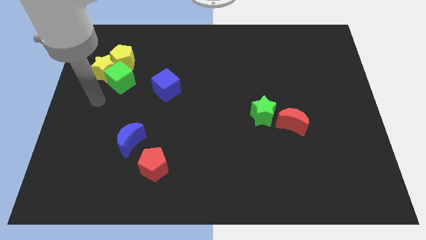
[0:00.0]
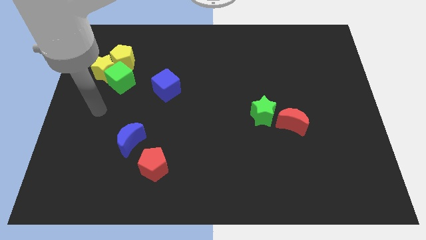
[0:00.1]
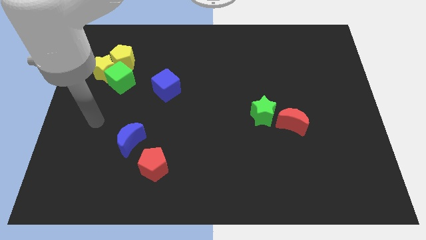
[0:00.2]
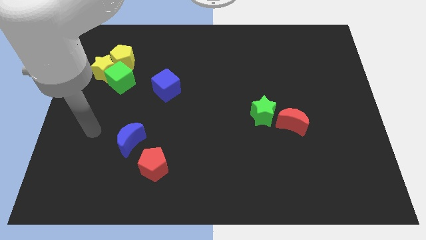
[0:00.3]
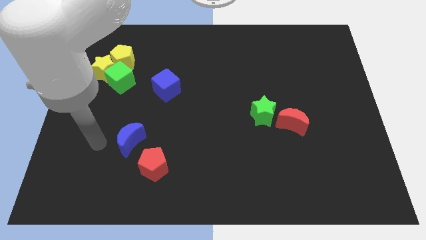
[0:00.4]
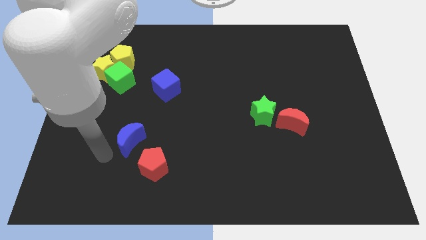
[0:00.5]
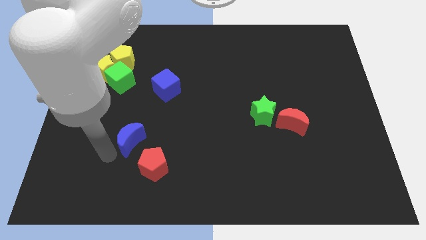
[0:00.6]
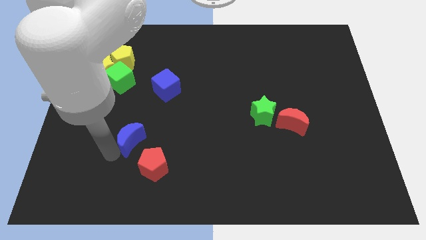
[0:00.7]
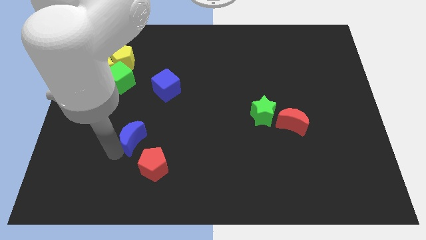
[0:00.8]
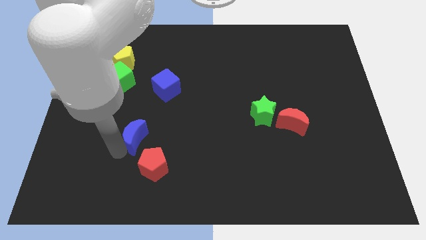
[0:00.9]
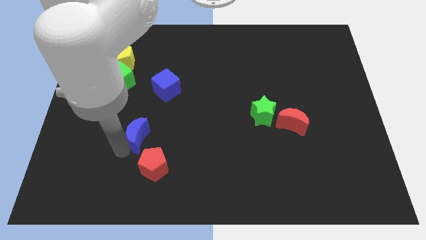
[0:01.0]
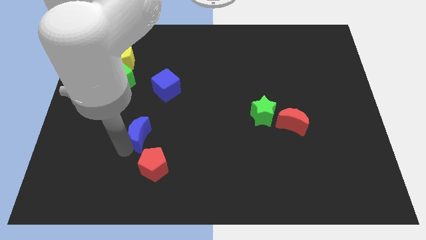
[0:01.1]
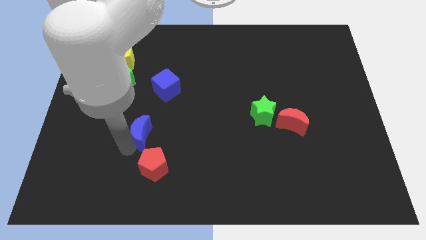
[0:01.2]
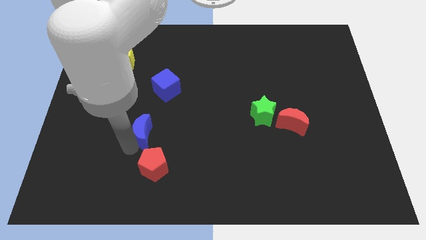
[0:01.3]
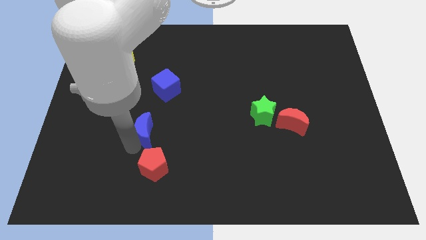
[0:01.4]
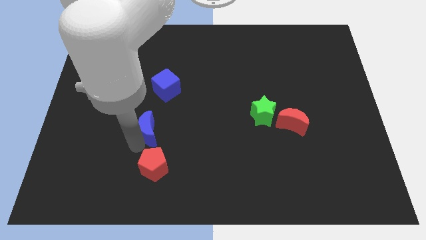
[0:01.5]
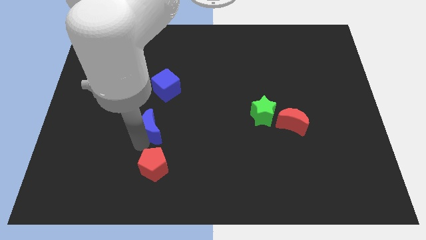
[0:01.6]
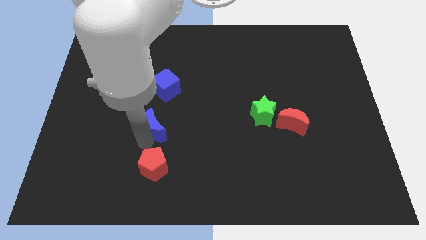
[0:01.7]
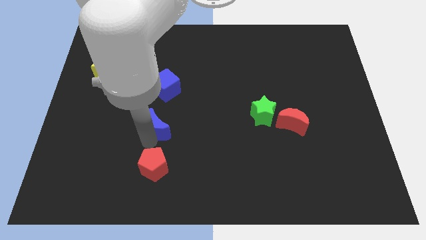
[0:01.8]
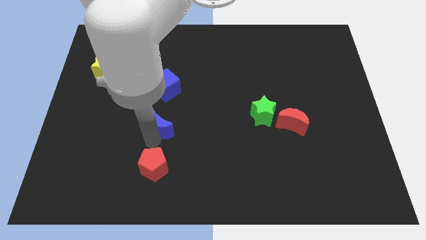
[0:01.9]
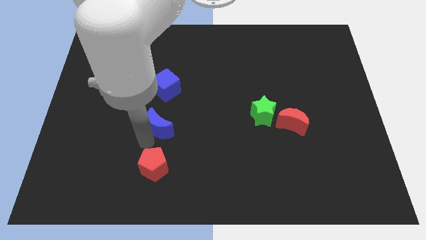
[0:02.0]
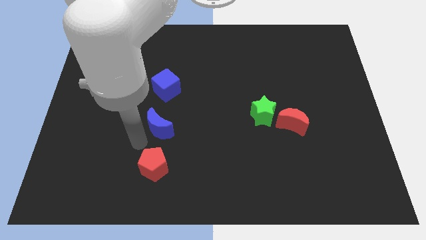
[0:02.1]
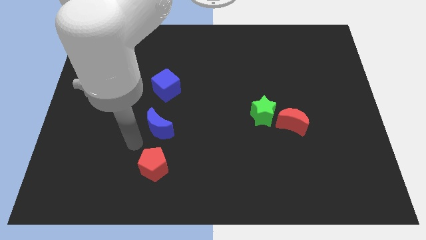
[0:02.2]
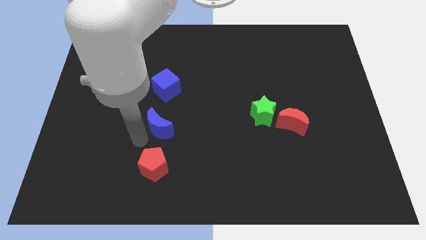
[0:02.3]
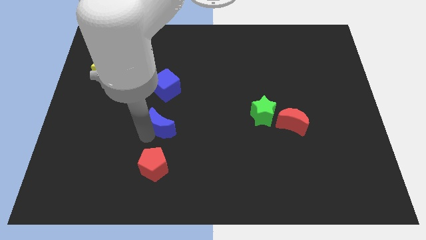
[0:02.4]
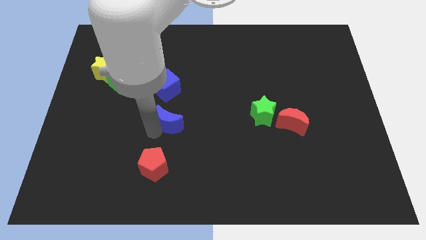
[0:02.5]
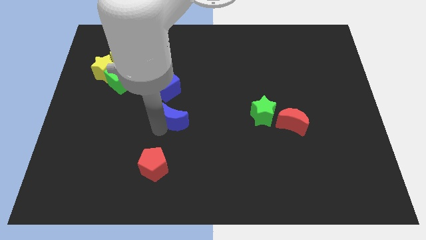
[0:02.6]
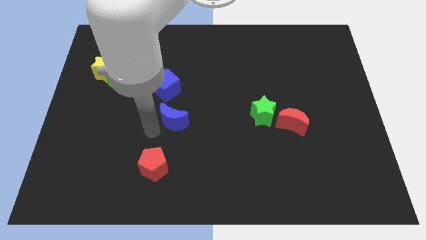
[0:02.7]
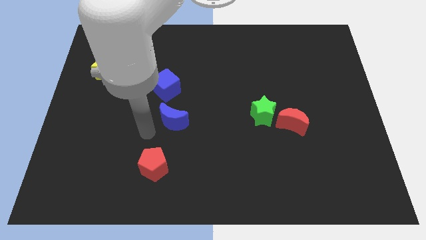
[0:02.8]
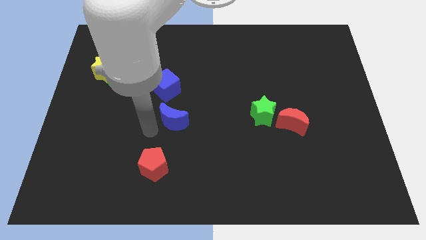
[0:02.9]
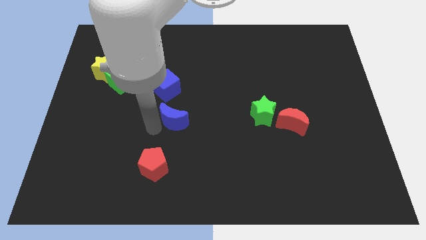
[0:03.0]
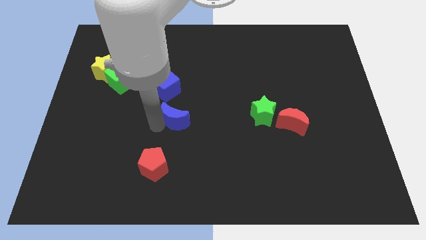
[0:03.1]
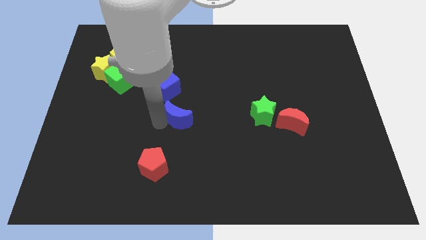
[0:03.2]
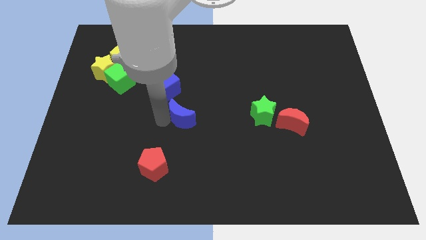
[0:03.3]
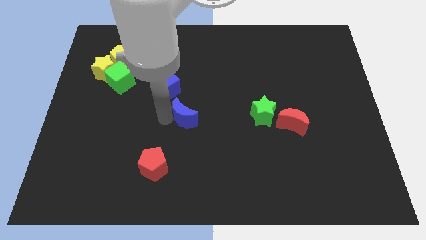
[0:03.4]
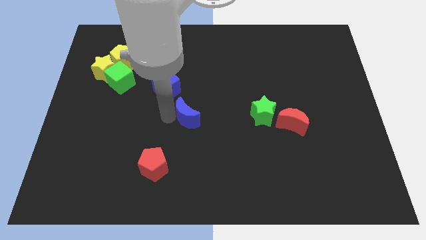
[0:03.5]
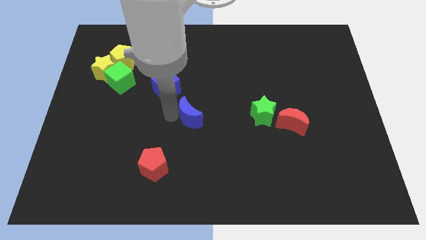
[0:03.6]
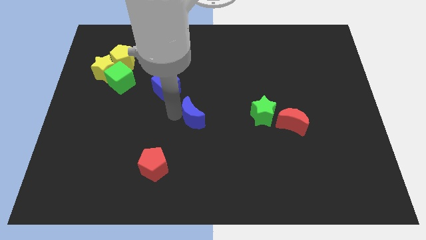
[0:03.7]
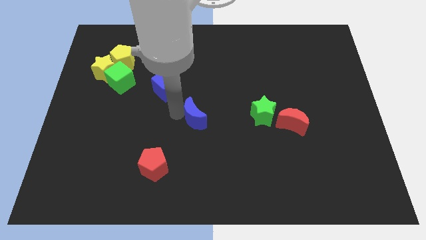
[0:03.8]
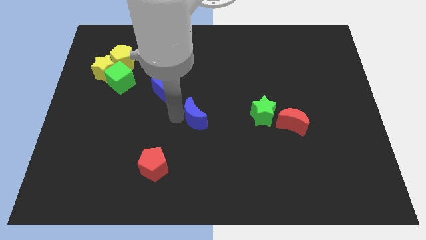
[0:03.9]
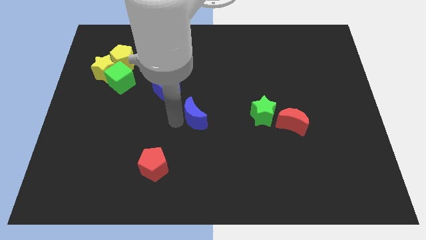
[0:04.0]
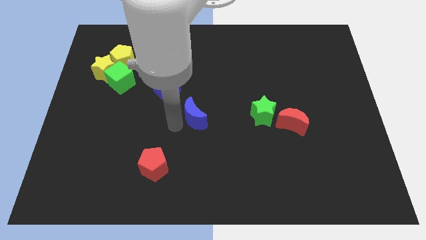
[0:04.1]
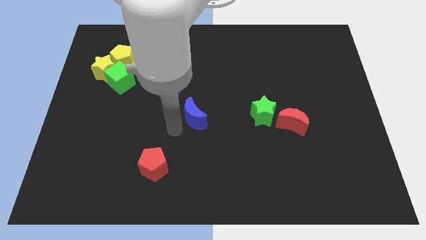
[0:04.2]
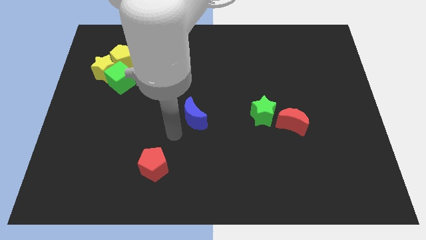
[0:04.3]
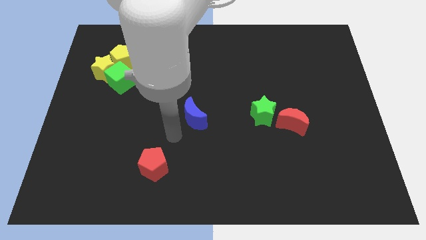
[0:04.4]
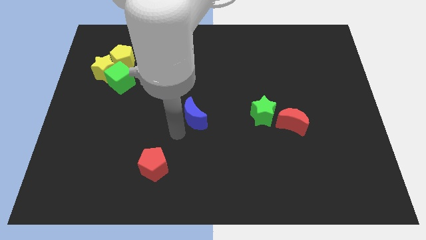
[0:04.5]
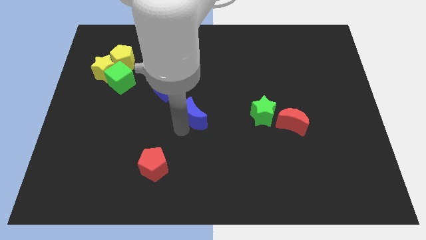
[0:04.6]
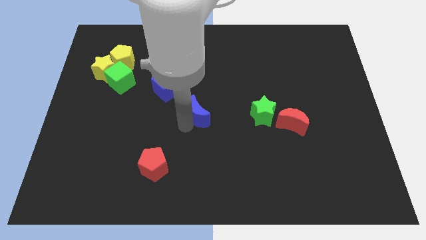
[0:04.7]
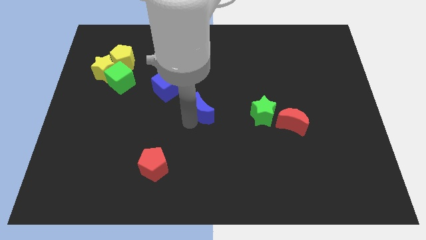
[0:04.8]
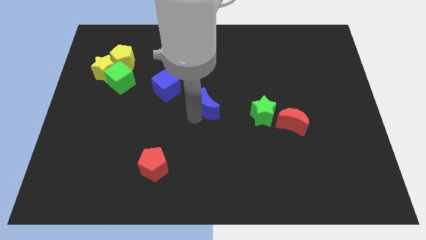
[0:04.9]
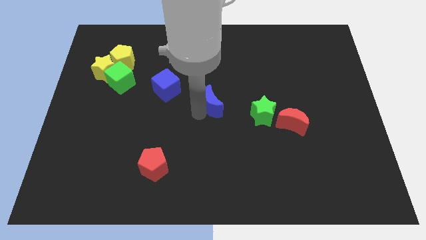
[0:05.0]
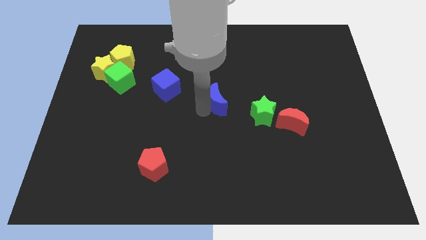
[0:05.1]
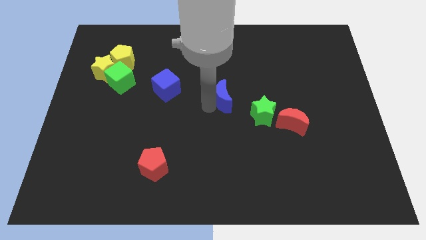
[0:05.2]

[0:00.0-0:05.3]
push the blue moon to the top left side of the green star

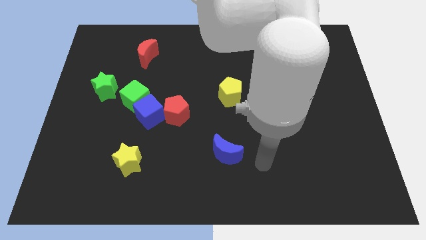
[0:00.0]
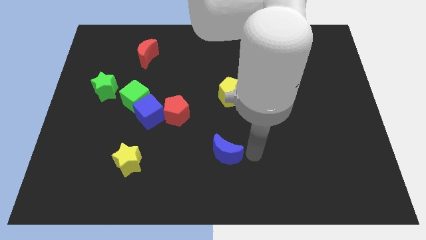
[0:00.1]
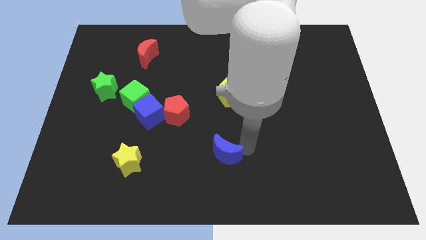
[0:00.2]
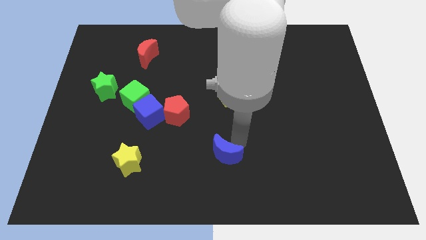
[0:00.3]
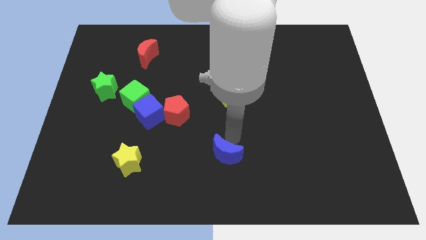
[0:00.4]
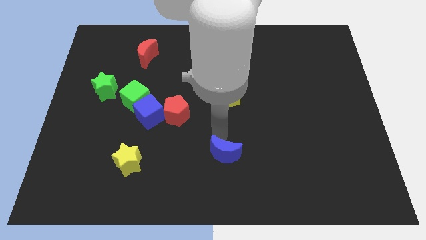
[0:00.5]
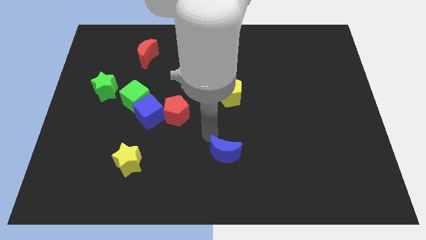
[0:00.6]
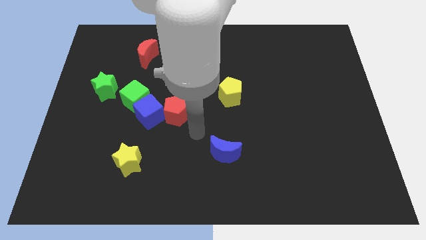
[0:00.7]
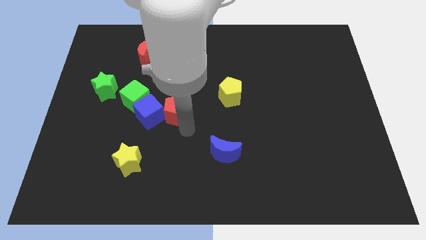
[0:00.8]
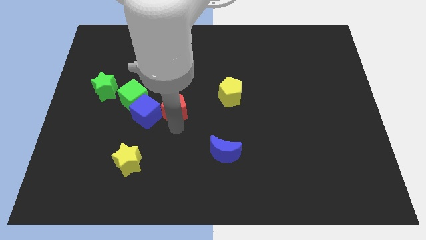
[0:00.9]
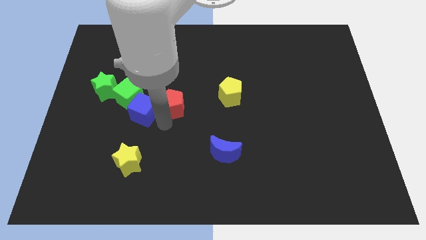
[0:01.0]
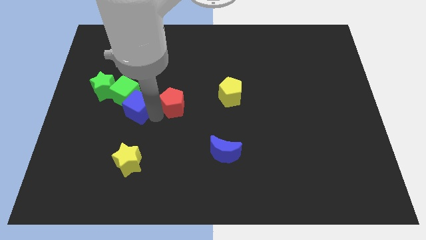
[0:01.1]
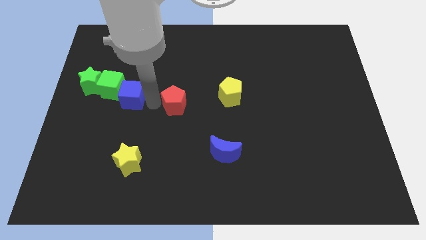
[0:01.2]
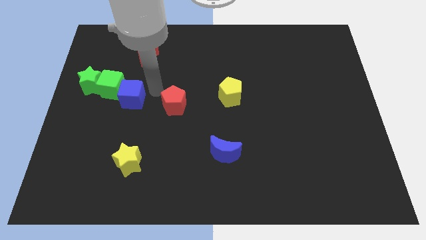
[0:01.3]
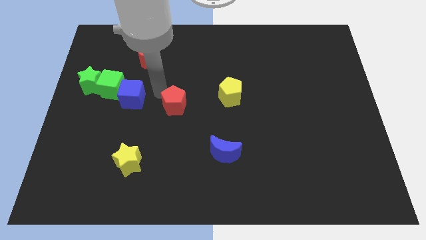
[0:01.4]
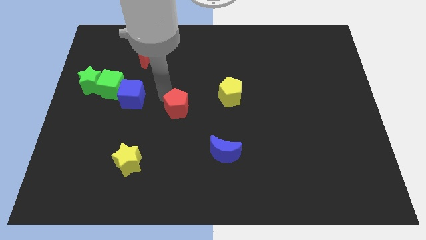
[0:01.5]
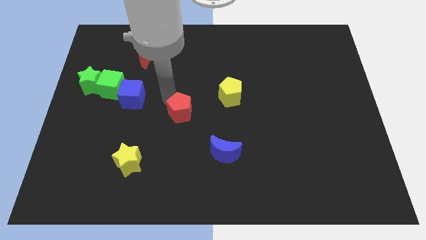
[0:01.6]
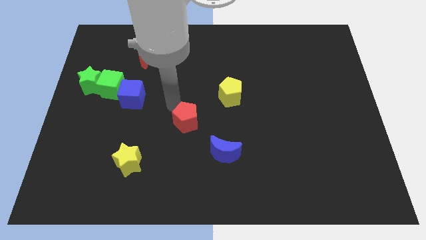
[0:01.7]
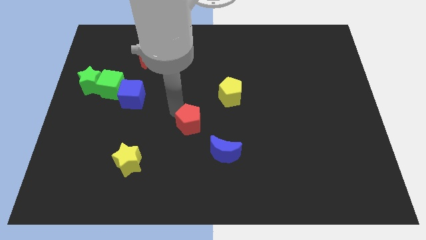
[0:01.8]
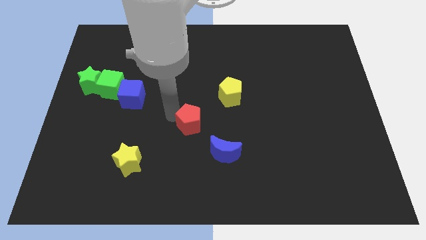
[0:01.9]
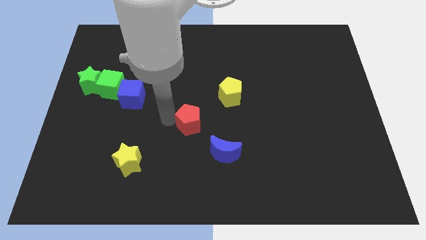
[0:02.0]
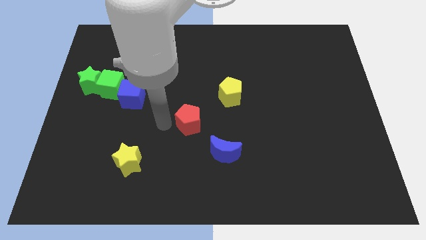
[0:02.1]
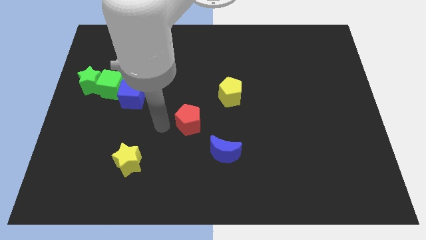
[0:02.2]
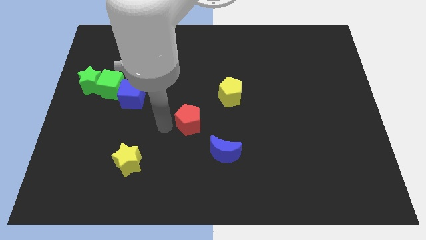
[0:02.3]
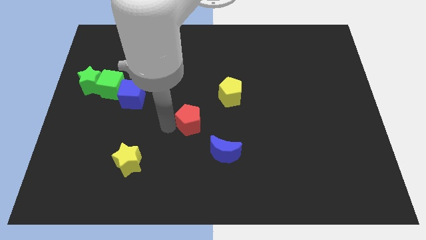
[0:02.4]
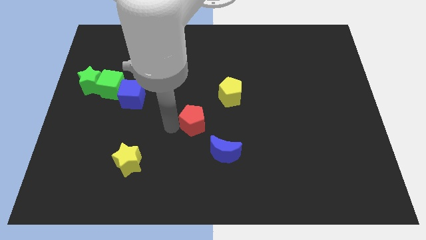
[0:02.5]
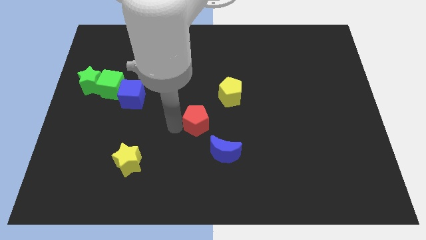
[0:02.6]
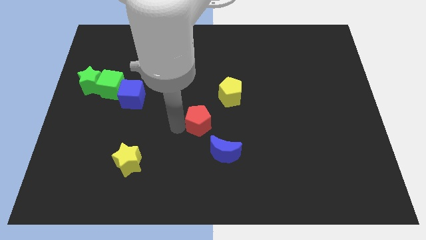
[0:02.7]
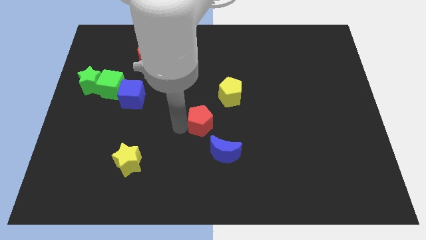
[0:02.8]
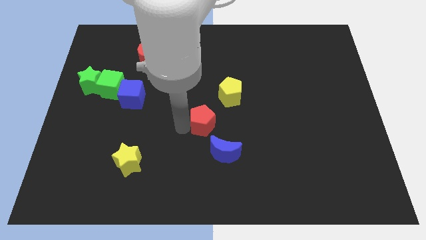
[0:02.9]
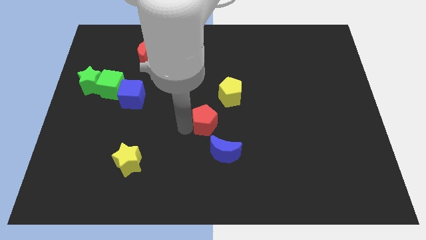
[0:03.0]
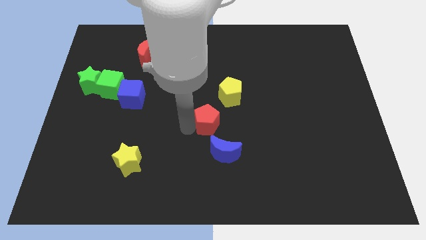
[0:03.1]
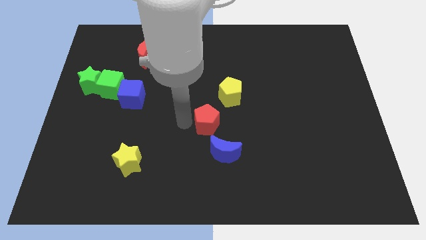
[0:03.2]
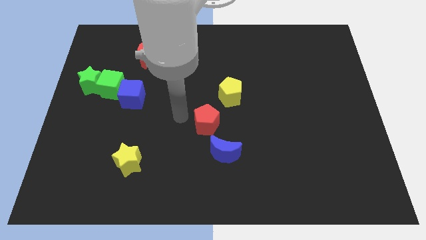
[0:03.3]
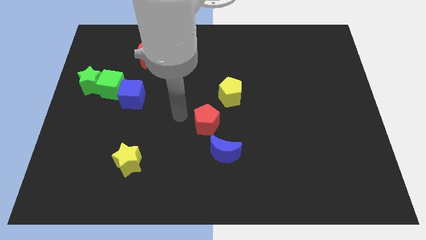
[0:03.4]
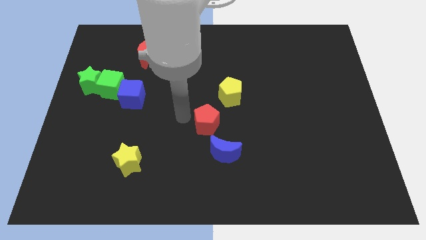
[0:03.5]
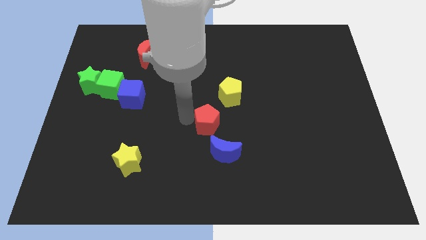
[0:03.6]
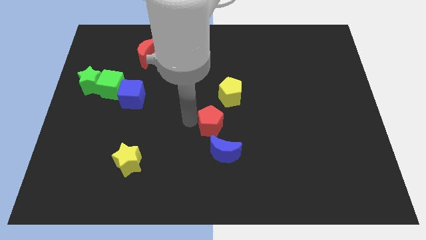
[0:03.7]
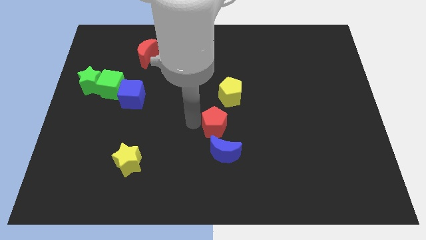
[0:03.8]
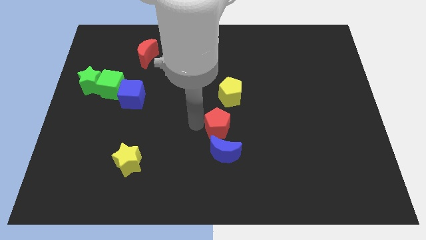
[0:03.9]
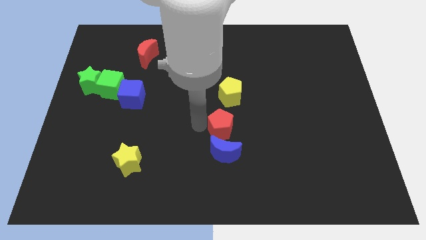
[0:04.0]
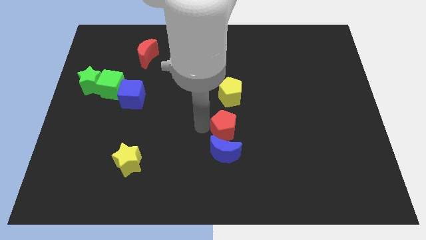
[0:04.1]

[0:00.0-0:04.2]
push the red pentagon to the top right side of the blue moon
